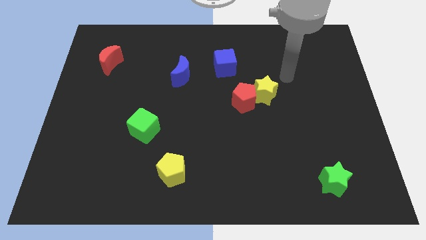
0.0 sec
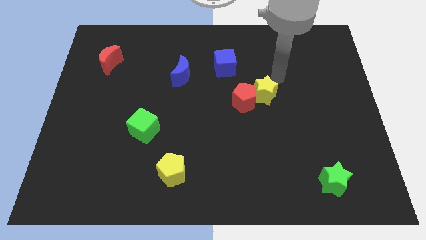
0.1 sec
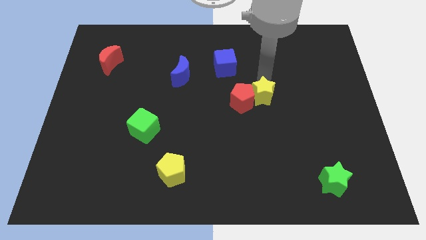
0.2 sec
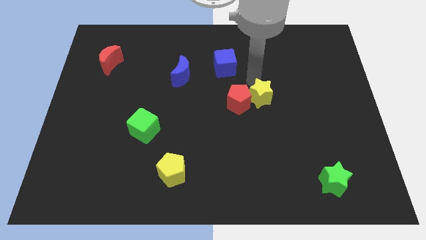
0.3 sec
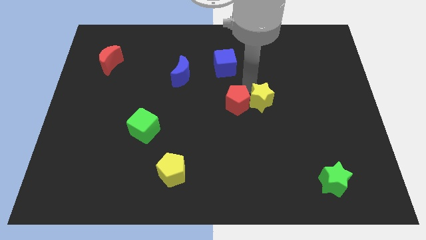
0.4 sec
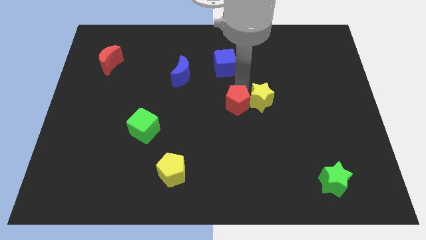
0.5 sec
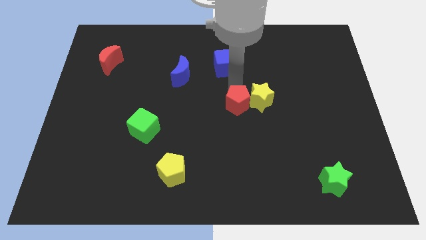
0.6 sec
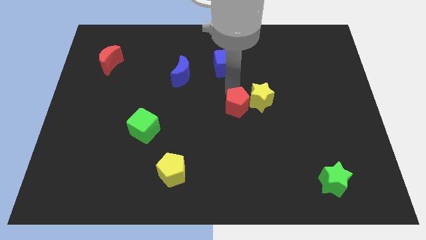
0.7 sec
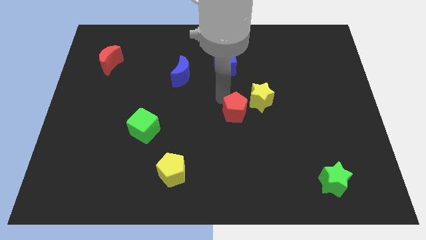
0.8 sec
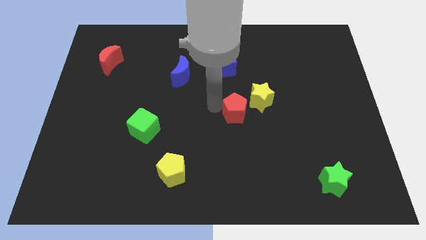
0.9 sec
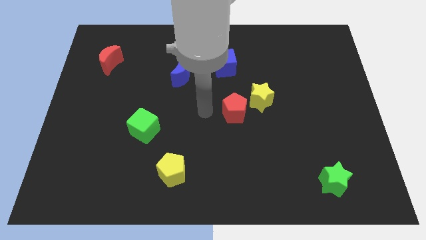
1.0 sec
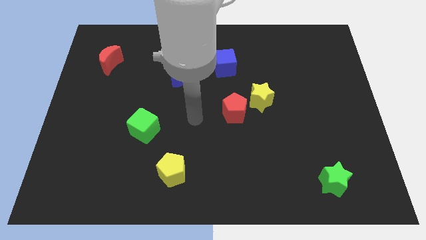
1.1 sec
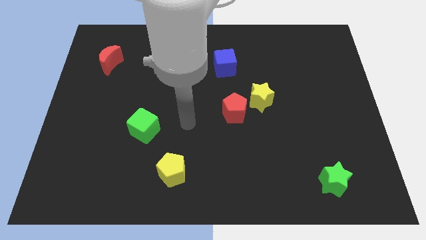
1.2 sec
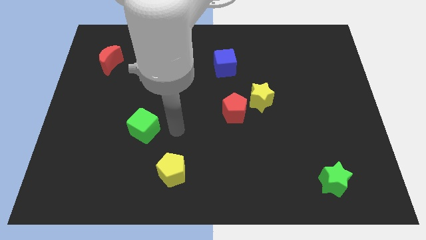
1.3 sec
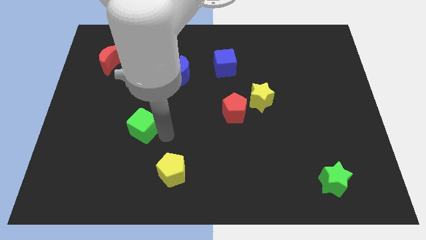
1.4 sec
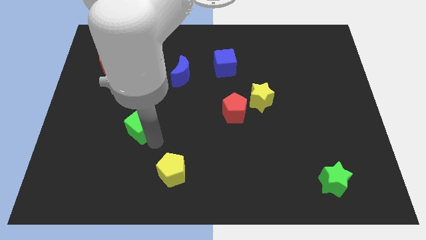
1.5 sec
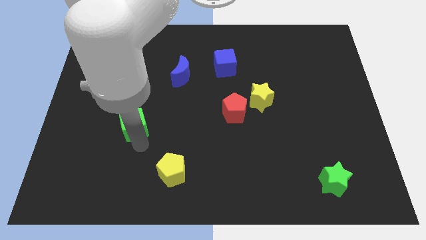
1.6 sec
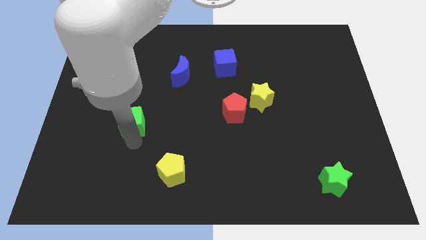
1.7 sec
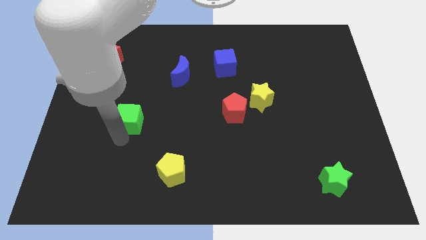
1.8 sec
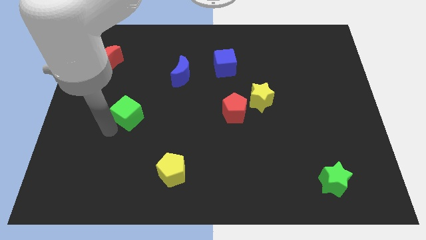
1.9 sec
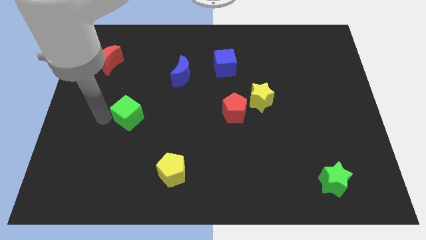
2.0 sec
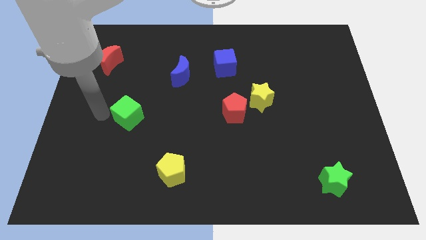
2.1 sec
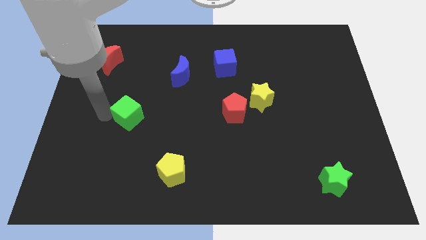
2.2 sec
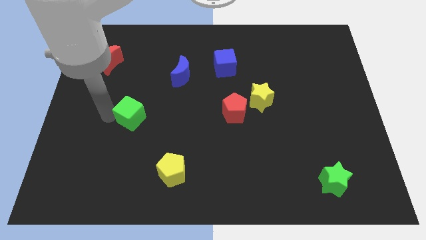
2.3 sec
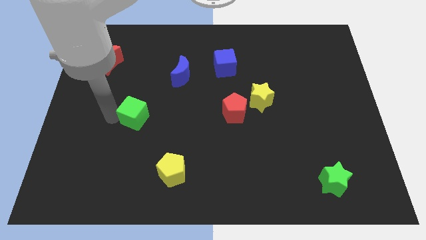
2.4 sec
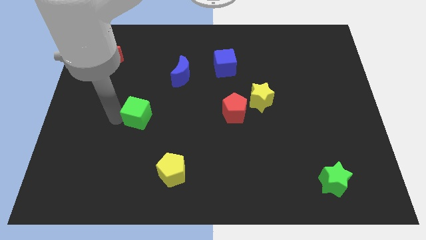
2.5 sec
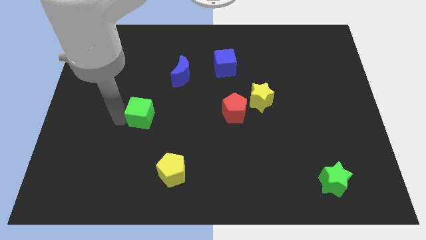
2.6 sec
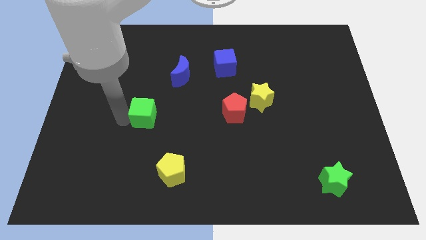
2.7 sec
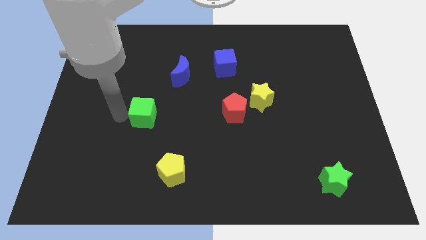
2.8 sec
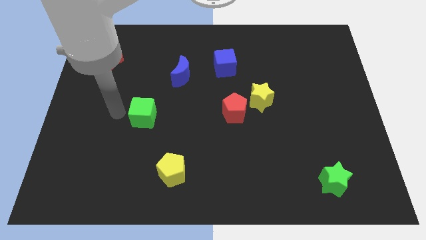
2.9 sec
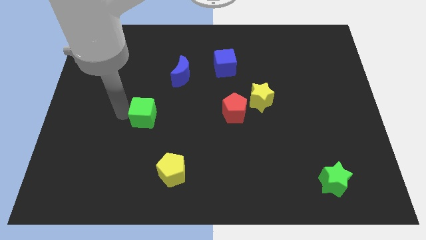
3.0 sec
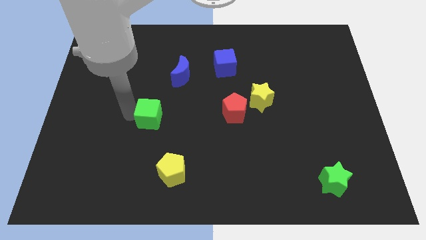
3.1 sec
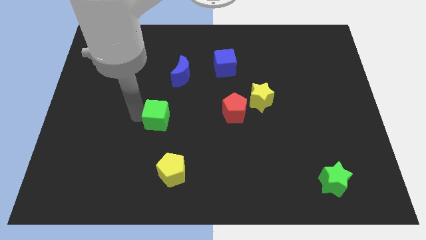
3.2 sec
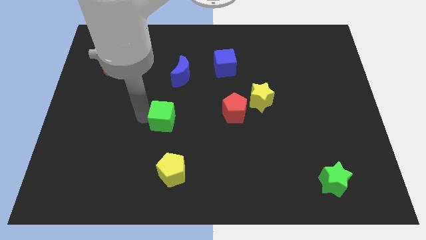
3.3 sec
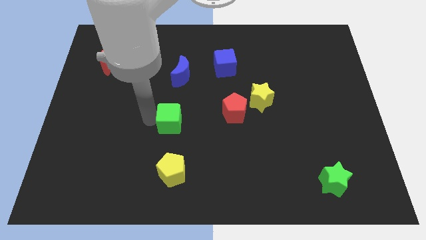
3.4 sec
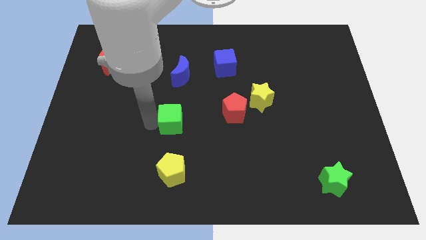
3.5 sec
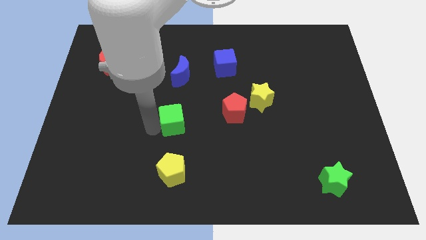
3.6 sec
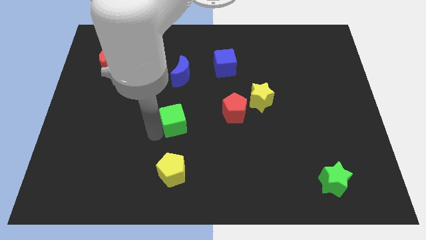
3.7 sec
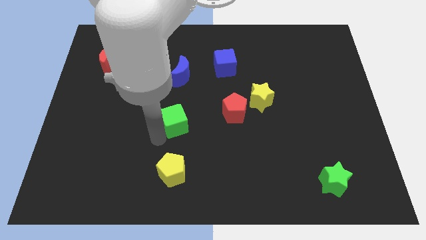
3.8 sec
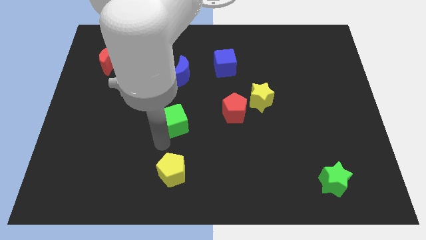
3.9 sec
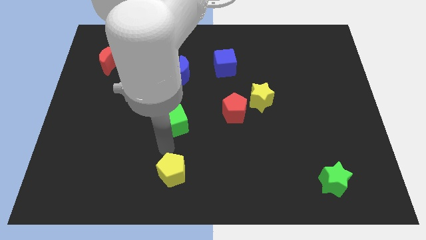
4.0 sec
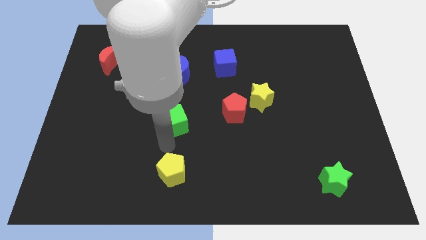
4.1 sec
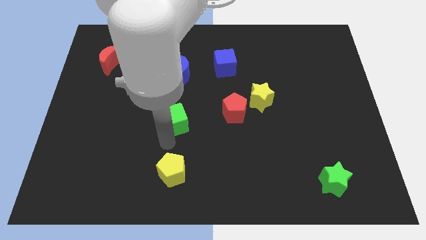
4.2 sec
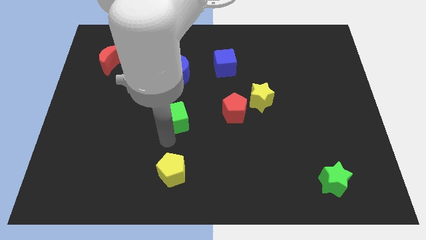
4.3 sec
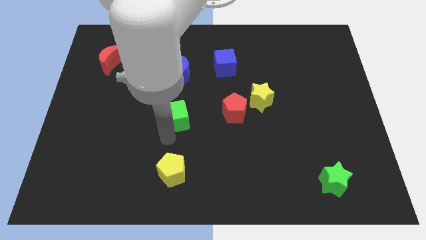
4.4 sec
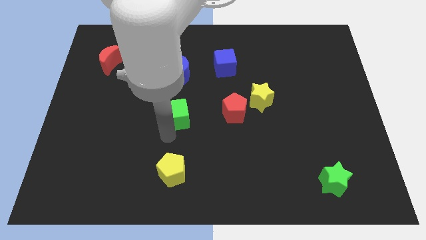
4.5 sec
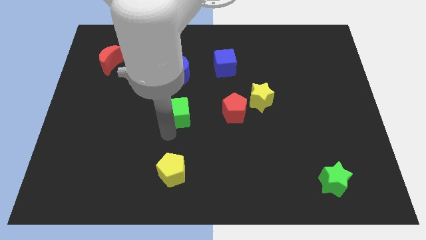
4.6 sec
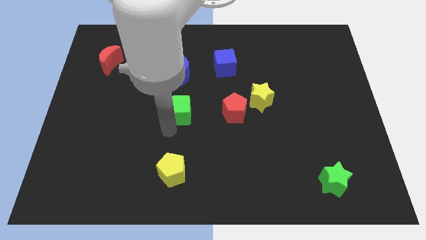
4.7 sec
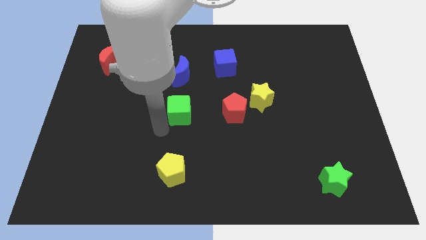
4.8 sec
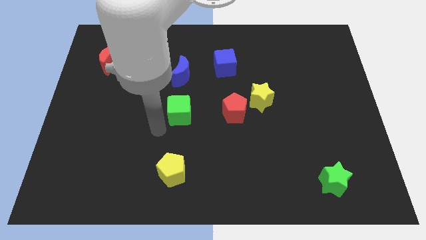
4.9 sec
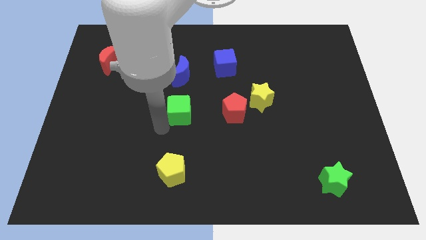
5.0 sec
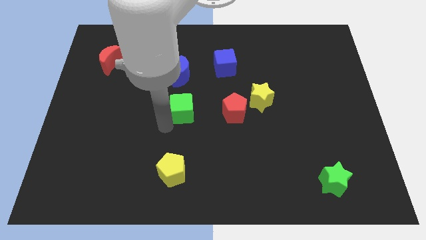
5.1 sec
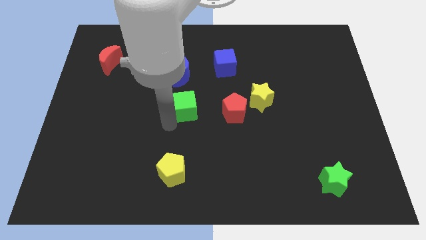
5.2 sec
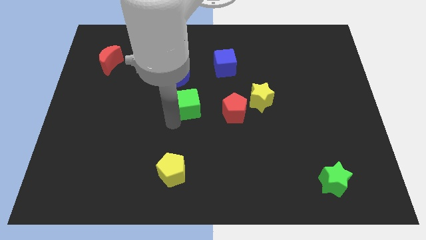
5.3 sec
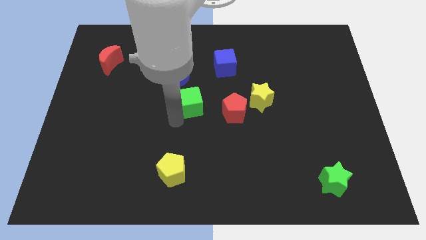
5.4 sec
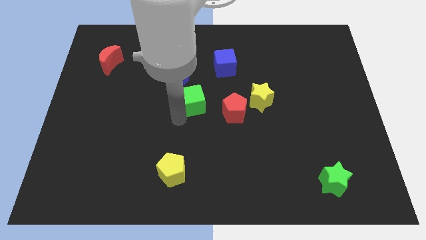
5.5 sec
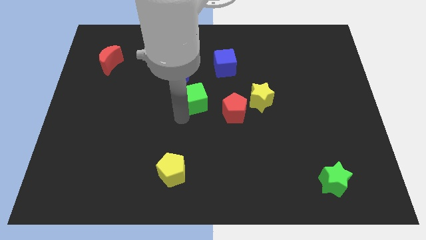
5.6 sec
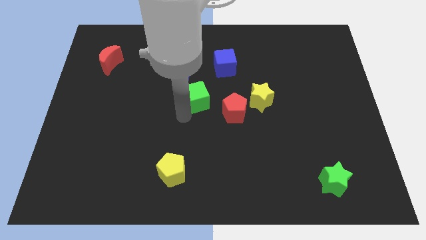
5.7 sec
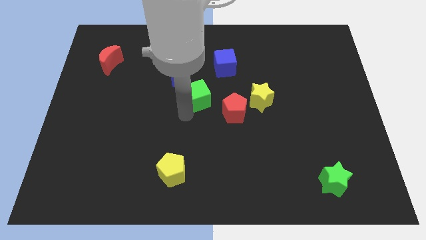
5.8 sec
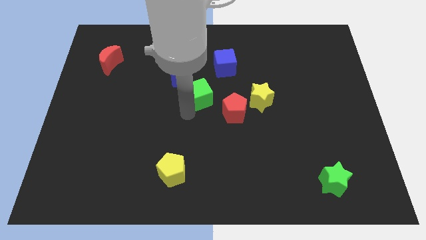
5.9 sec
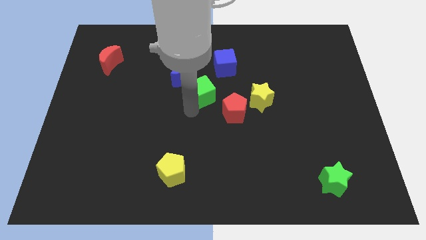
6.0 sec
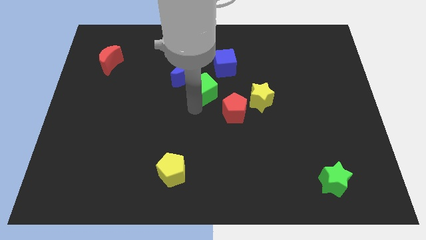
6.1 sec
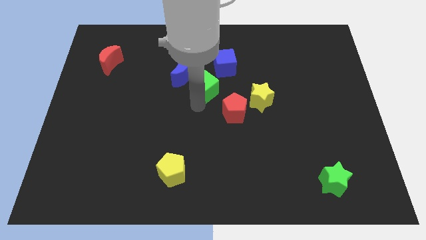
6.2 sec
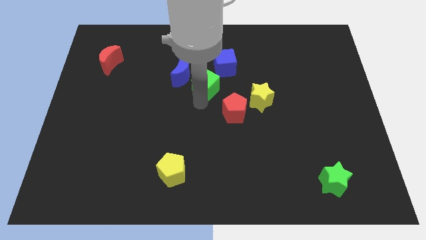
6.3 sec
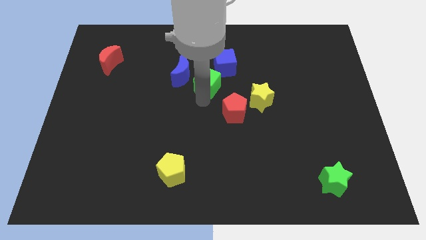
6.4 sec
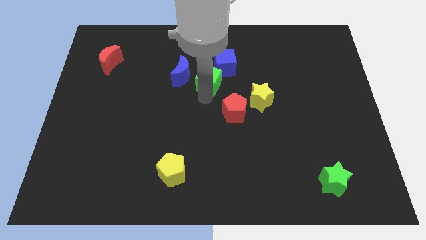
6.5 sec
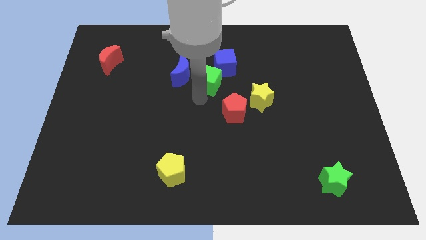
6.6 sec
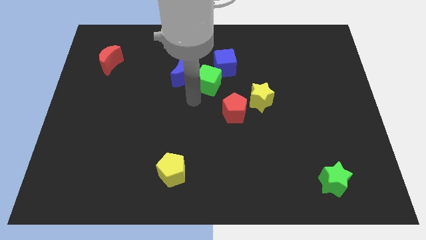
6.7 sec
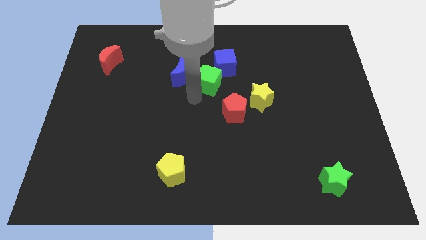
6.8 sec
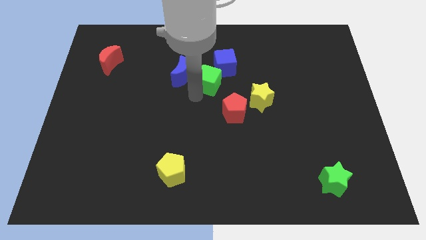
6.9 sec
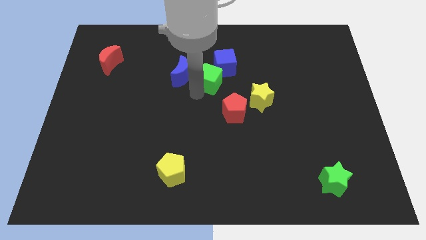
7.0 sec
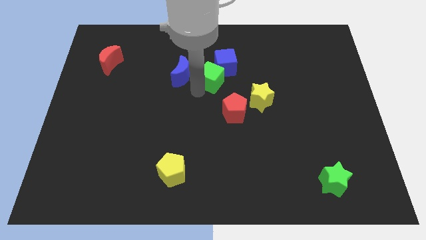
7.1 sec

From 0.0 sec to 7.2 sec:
move the green cube next to the blue cube

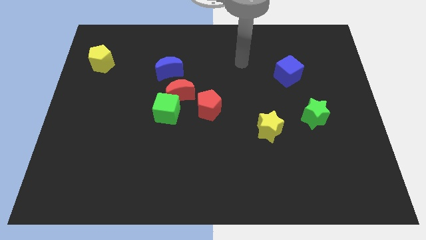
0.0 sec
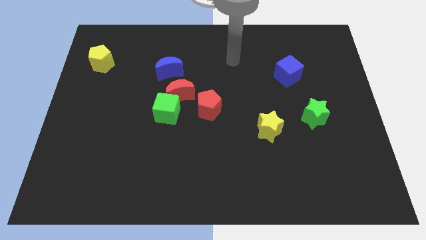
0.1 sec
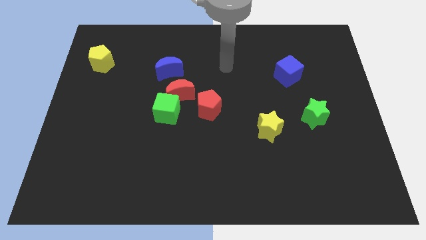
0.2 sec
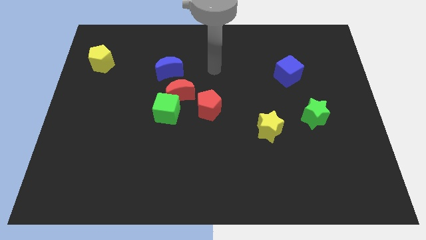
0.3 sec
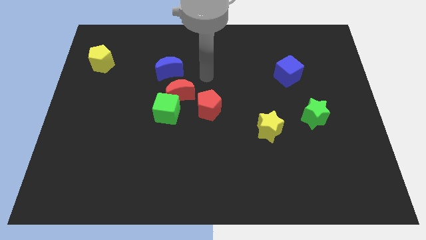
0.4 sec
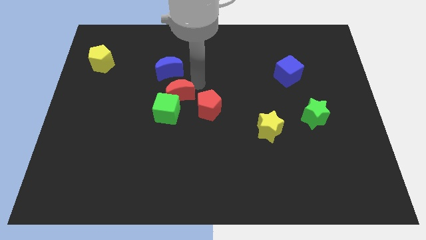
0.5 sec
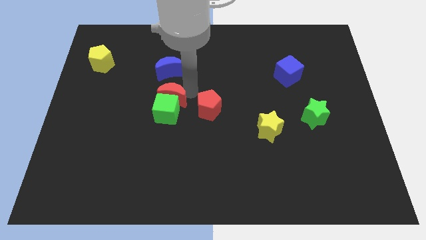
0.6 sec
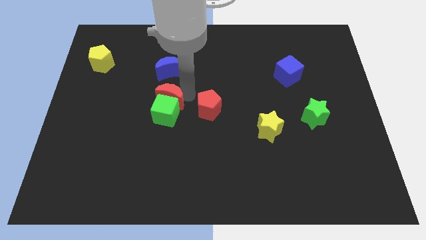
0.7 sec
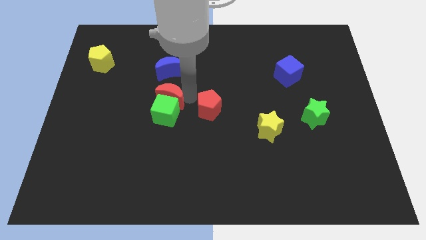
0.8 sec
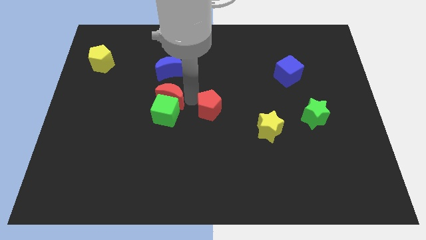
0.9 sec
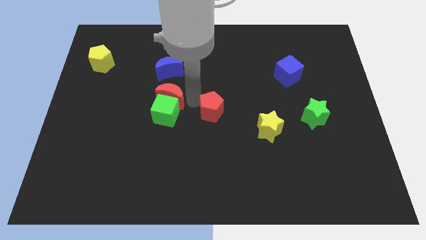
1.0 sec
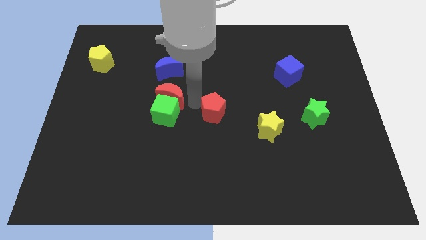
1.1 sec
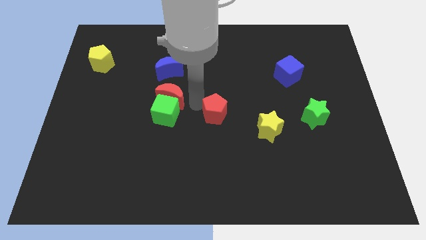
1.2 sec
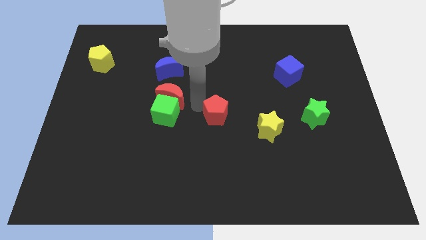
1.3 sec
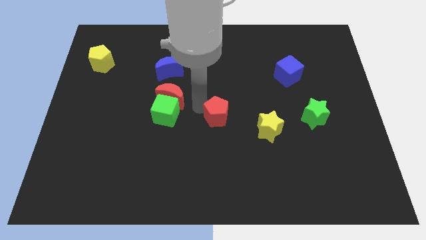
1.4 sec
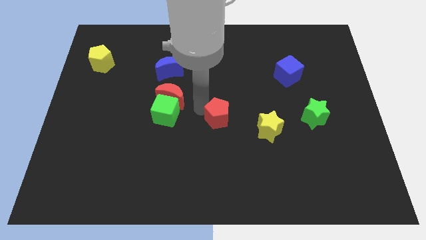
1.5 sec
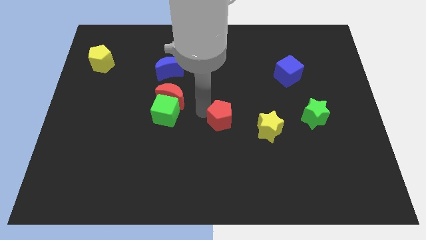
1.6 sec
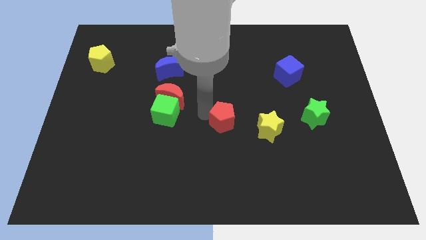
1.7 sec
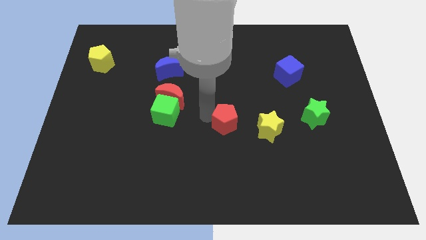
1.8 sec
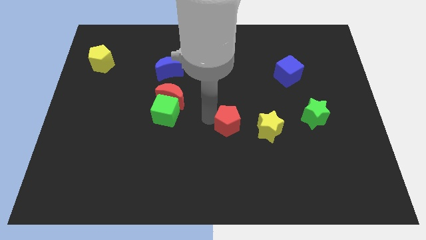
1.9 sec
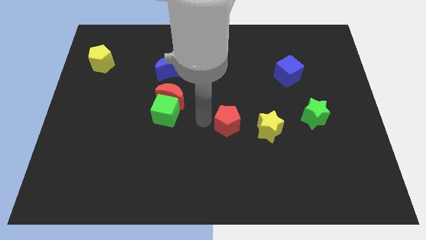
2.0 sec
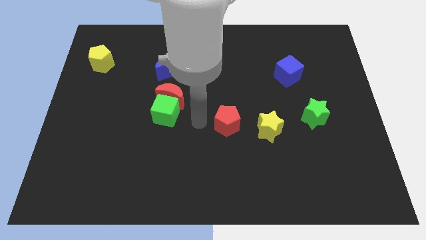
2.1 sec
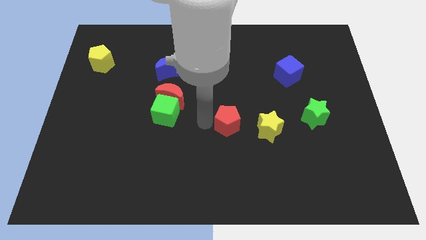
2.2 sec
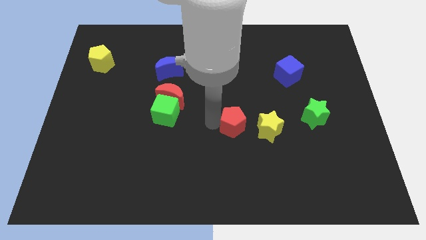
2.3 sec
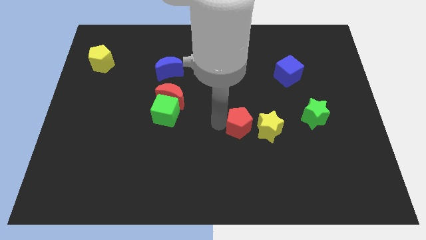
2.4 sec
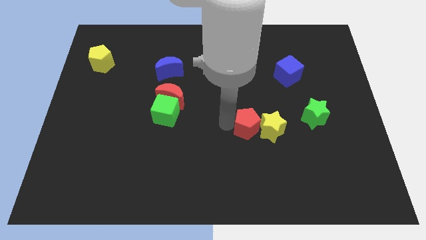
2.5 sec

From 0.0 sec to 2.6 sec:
push the red pentagon to the yellow star
